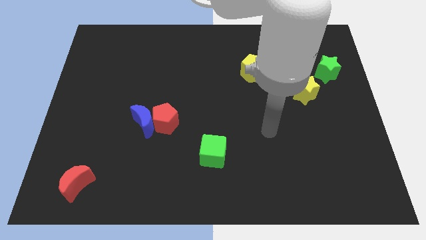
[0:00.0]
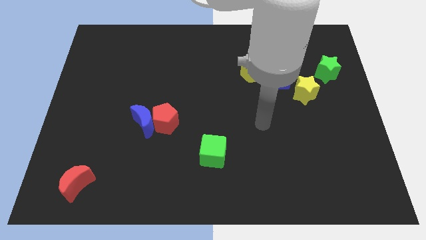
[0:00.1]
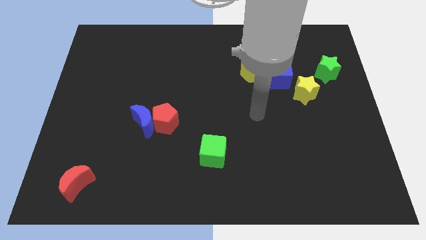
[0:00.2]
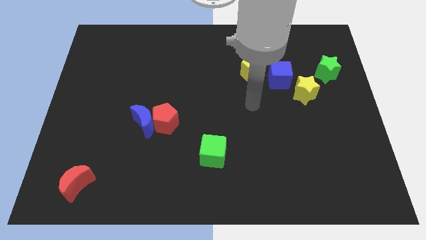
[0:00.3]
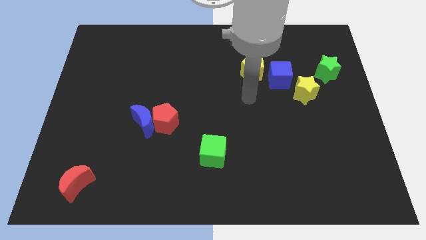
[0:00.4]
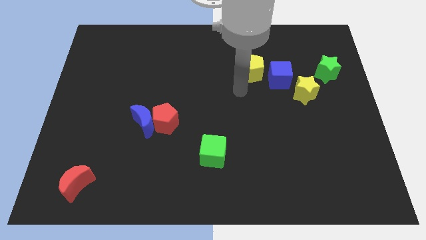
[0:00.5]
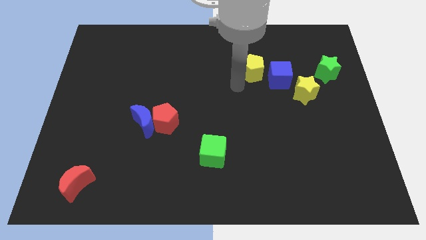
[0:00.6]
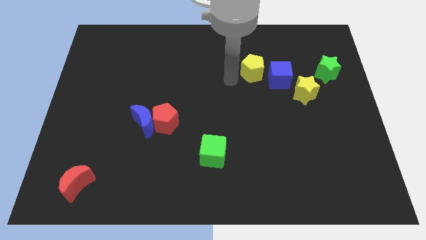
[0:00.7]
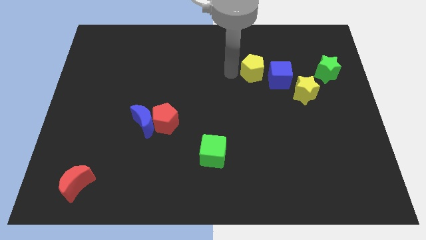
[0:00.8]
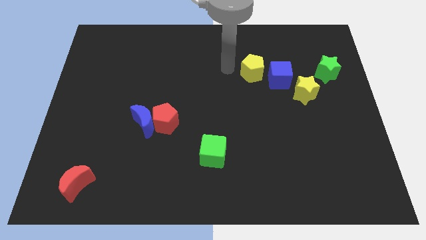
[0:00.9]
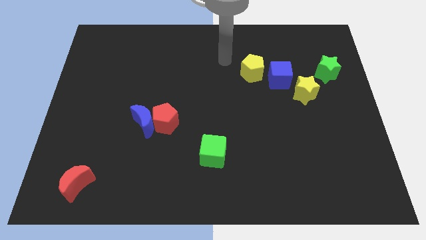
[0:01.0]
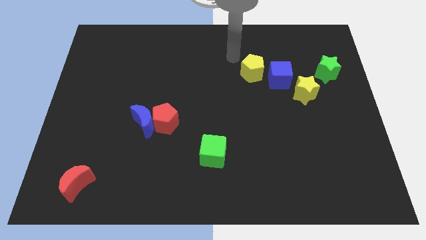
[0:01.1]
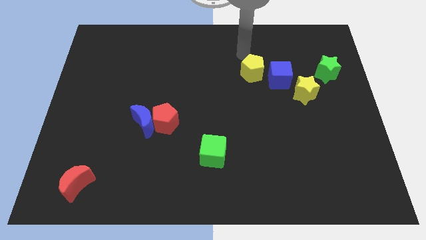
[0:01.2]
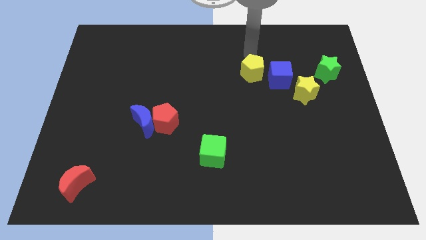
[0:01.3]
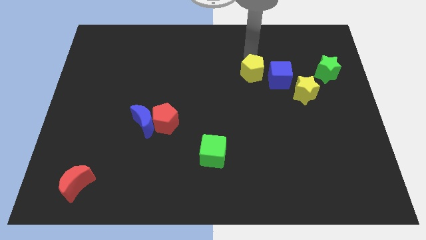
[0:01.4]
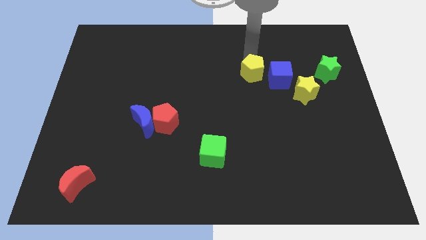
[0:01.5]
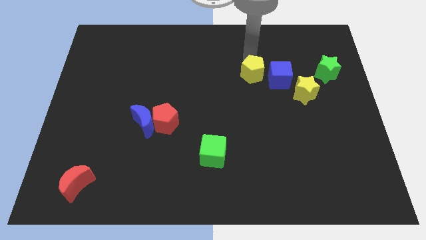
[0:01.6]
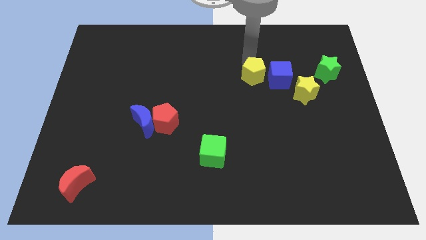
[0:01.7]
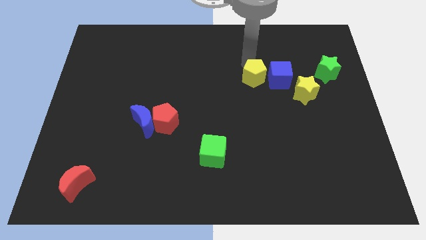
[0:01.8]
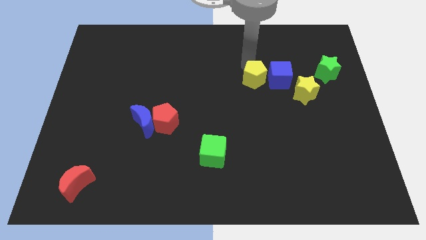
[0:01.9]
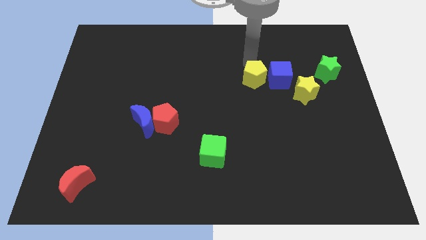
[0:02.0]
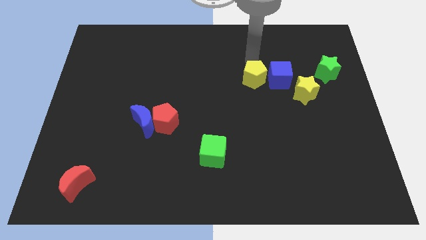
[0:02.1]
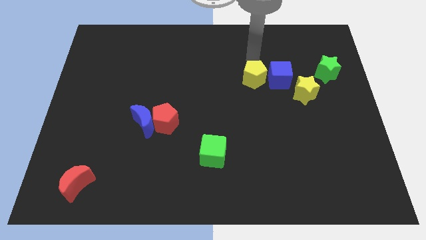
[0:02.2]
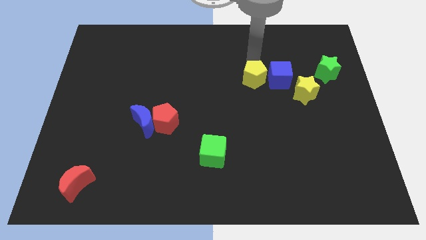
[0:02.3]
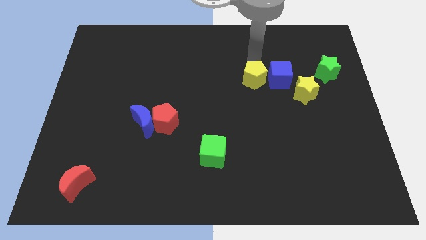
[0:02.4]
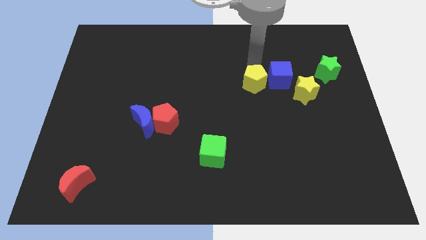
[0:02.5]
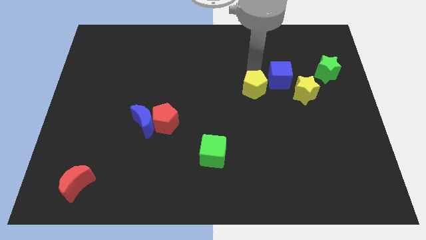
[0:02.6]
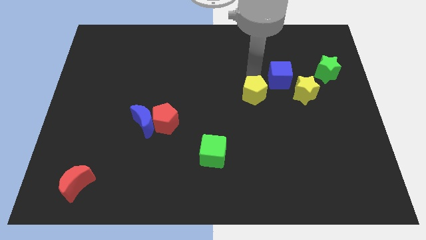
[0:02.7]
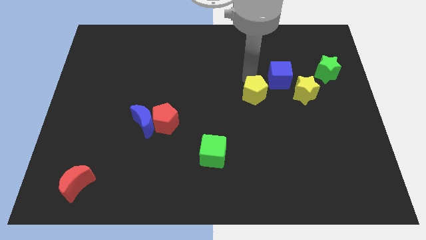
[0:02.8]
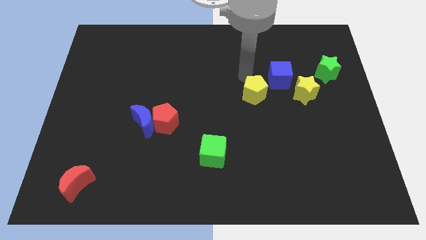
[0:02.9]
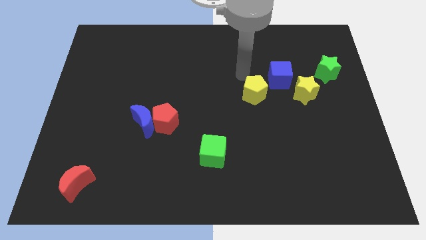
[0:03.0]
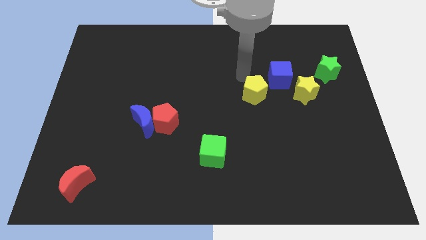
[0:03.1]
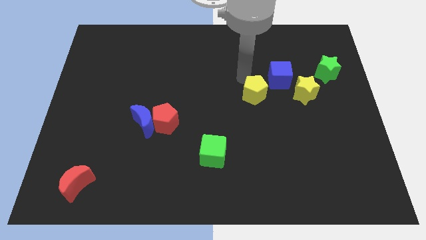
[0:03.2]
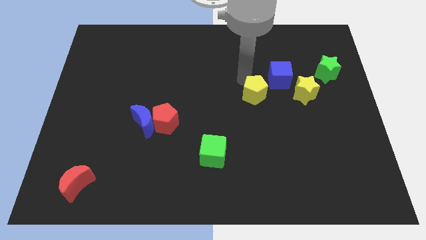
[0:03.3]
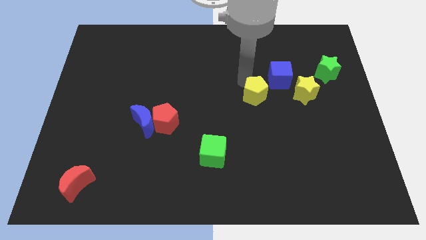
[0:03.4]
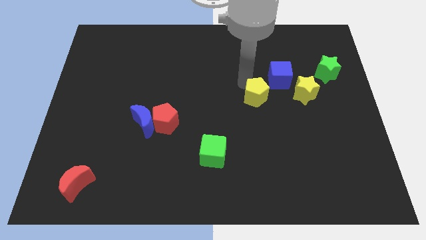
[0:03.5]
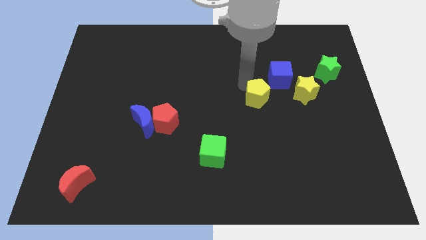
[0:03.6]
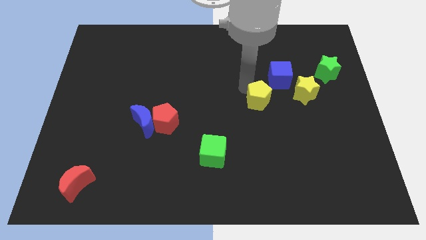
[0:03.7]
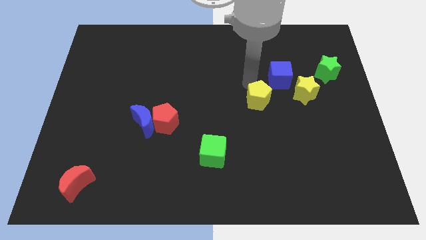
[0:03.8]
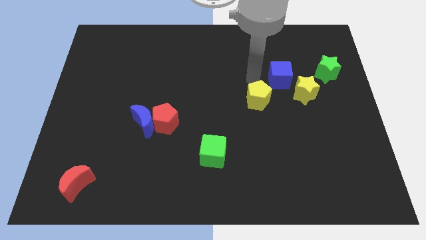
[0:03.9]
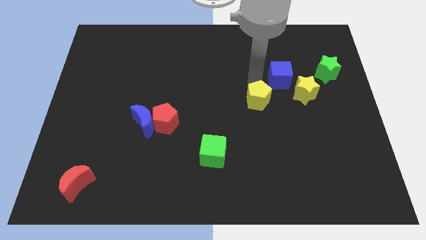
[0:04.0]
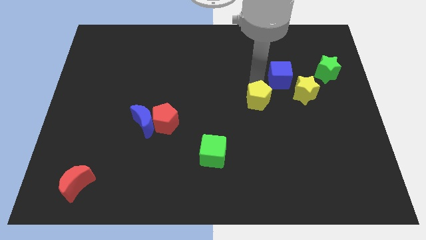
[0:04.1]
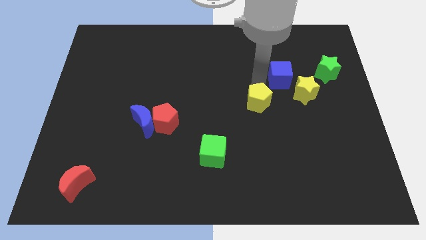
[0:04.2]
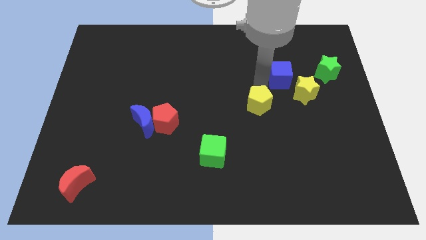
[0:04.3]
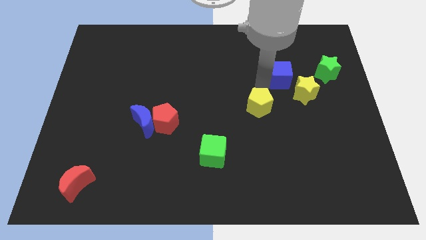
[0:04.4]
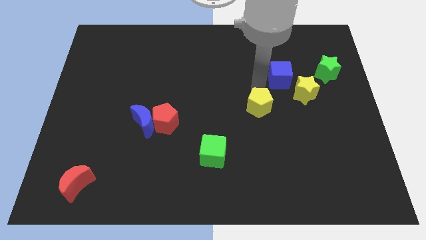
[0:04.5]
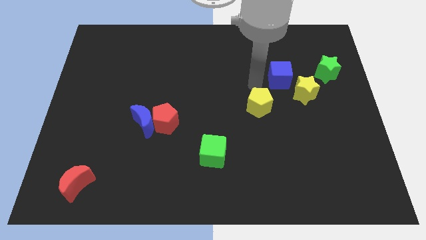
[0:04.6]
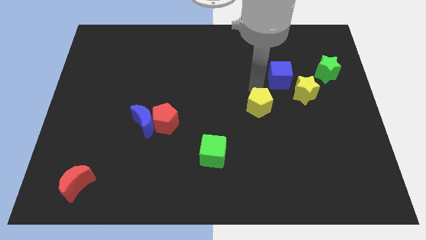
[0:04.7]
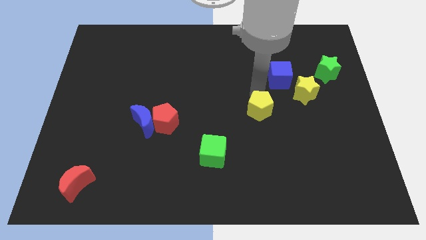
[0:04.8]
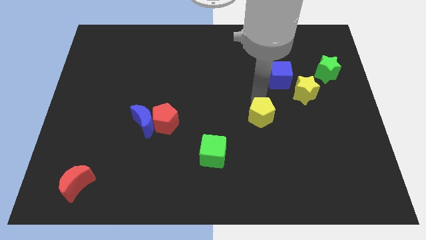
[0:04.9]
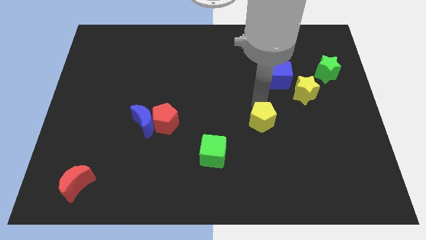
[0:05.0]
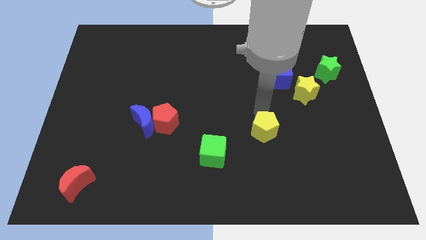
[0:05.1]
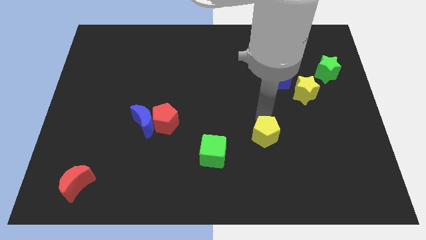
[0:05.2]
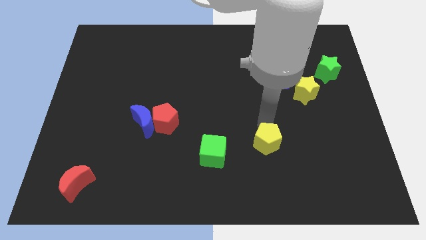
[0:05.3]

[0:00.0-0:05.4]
move the yellow pentagon right of the green cube

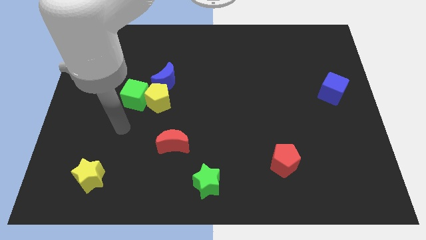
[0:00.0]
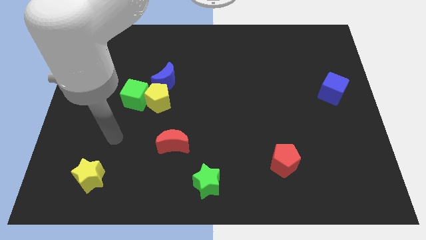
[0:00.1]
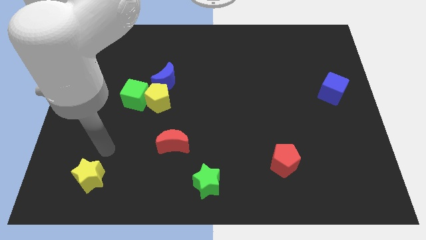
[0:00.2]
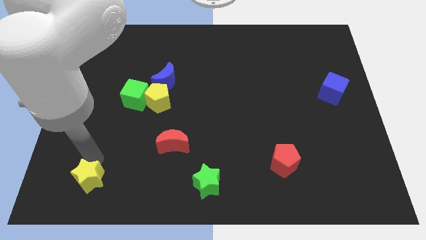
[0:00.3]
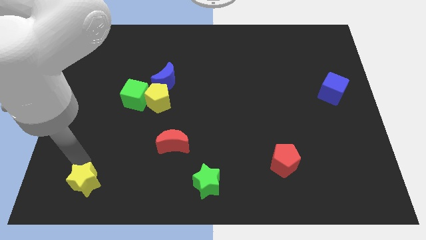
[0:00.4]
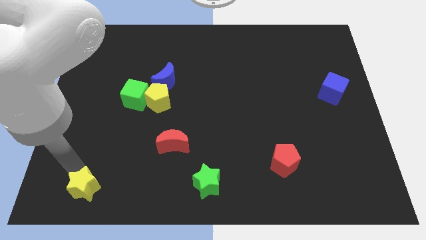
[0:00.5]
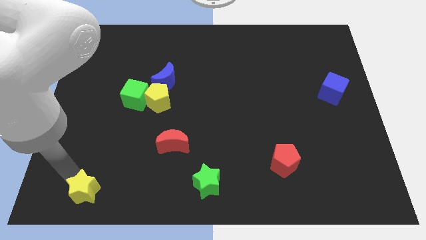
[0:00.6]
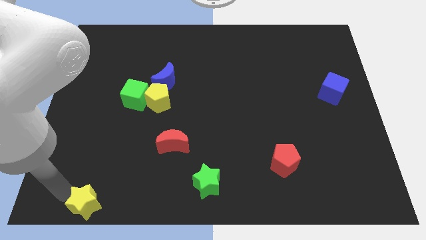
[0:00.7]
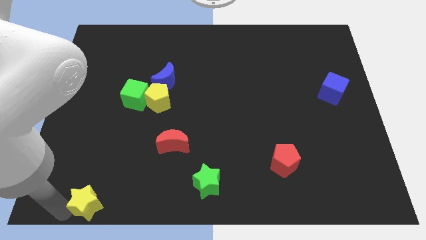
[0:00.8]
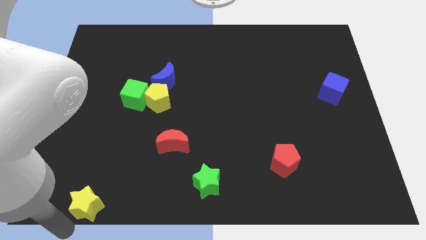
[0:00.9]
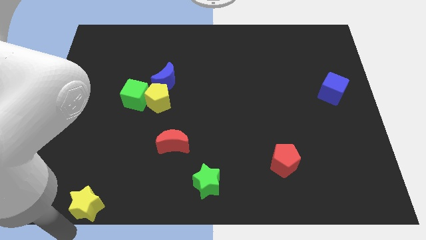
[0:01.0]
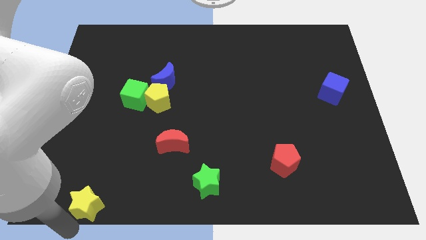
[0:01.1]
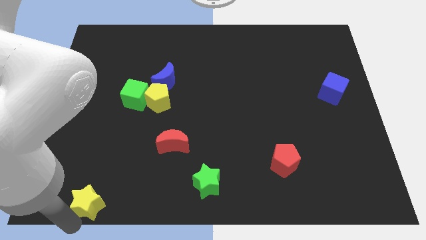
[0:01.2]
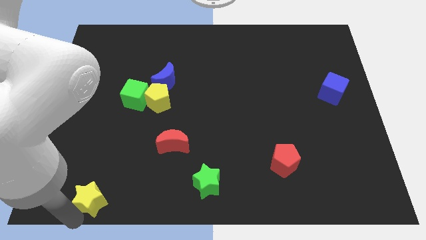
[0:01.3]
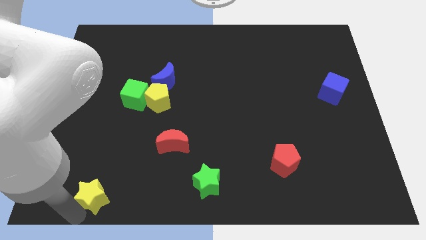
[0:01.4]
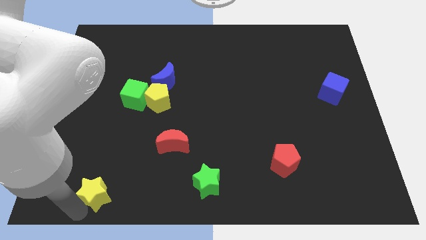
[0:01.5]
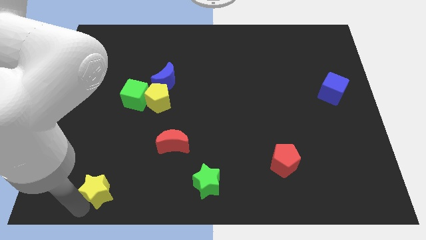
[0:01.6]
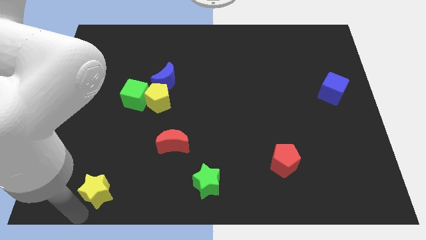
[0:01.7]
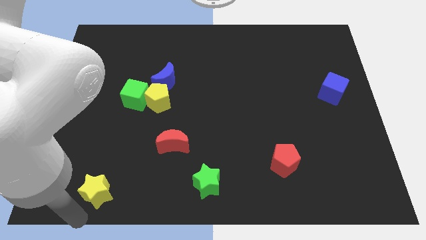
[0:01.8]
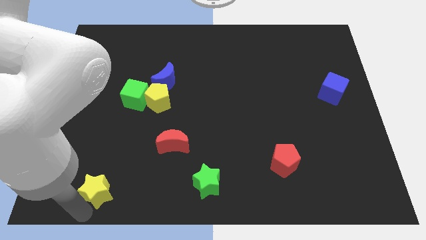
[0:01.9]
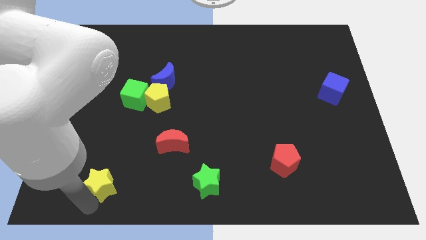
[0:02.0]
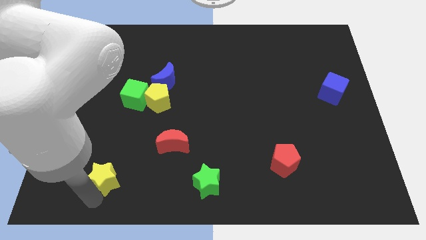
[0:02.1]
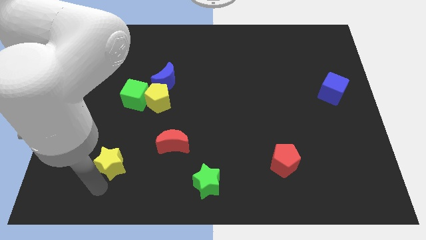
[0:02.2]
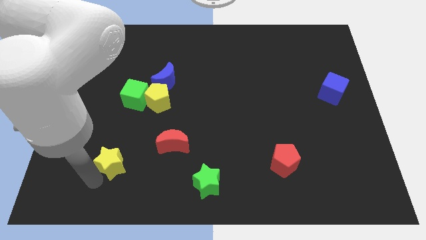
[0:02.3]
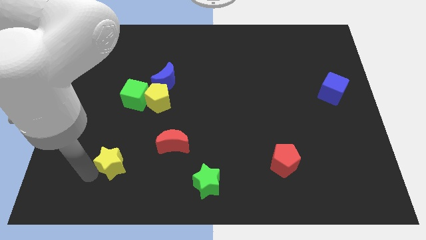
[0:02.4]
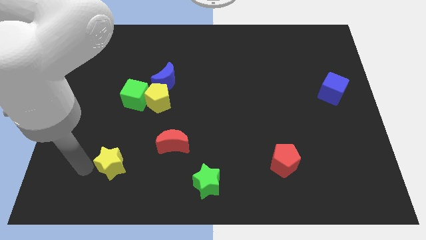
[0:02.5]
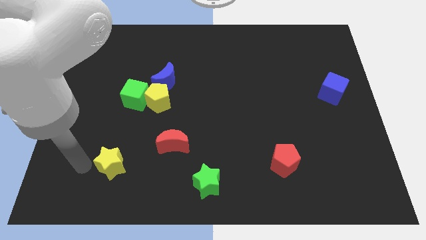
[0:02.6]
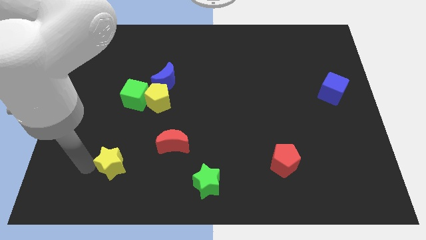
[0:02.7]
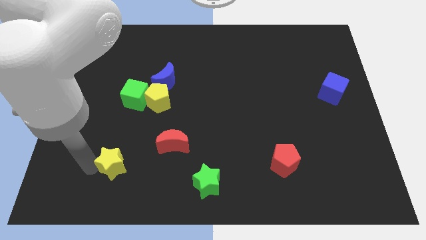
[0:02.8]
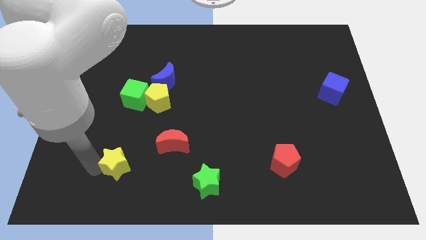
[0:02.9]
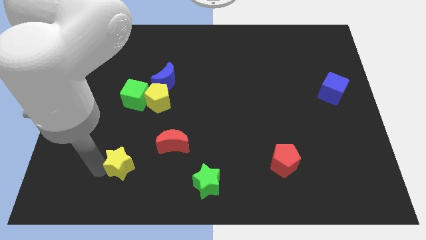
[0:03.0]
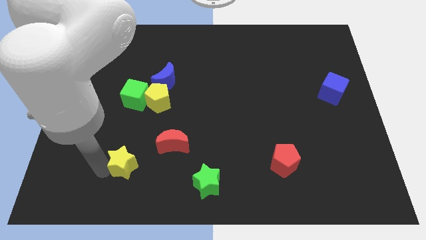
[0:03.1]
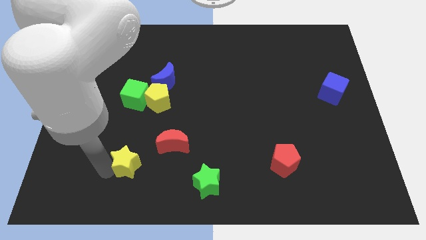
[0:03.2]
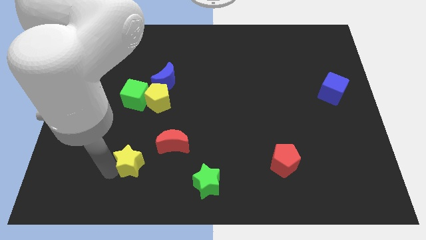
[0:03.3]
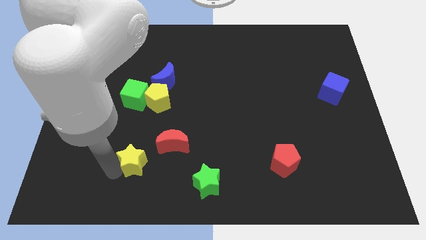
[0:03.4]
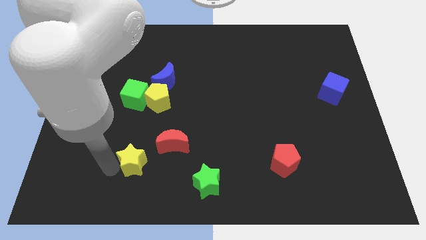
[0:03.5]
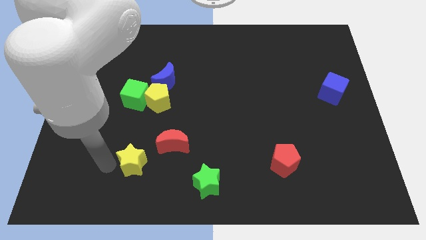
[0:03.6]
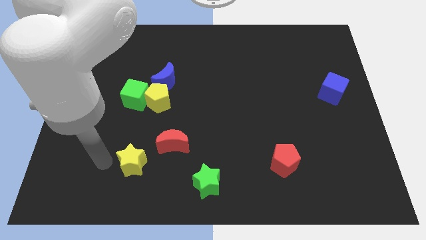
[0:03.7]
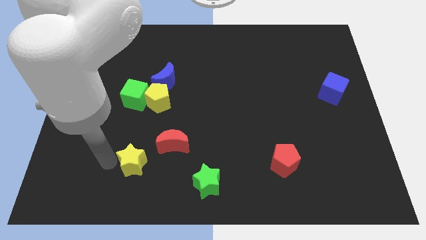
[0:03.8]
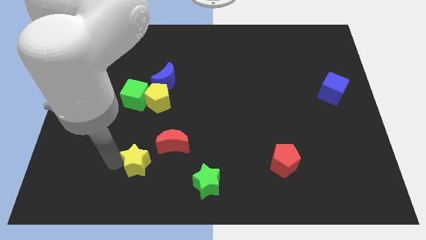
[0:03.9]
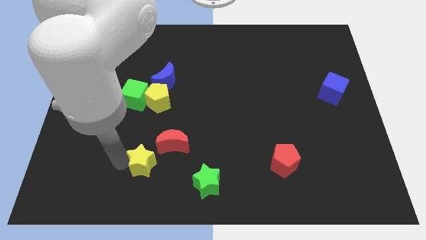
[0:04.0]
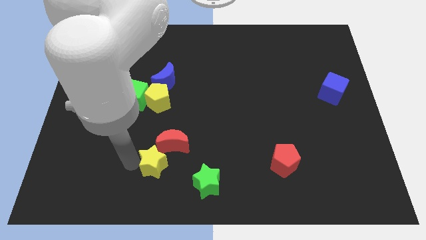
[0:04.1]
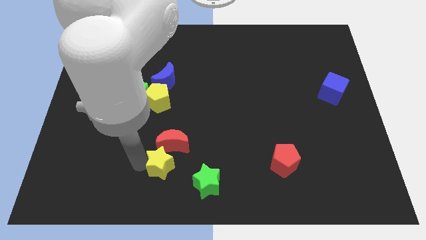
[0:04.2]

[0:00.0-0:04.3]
push the yellow star to the top left of the green star
